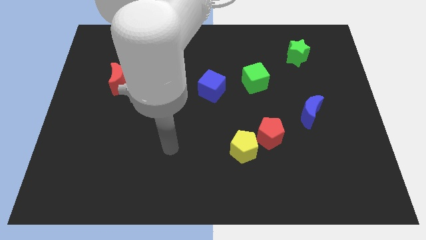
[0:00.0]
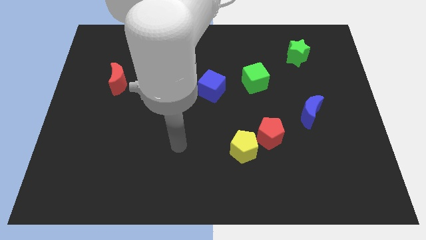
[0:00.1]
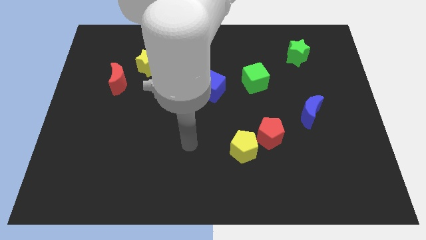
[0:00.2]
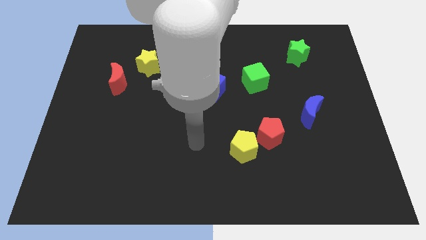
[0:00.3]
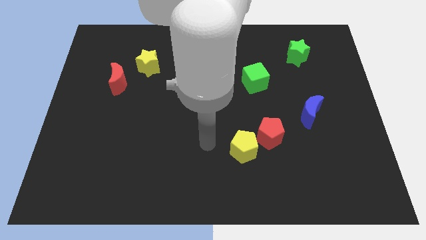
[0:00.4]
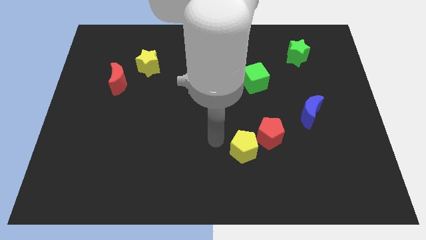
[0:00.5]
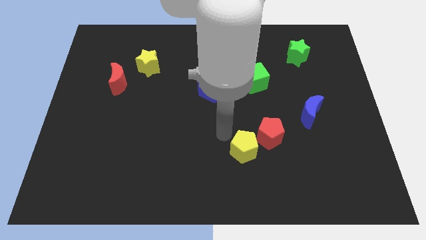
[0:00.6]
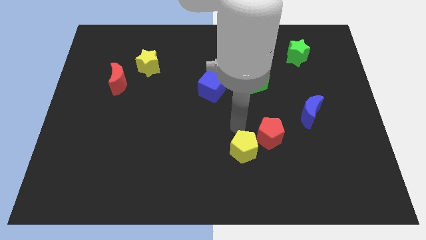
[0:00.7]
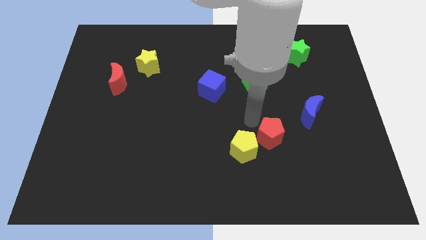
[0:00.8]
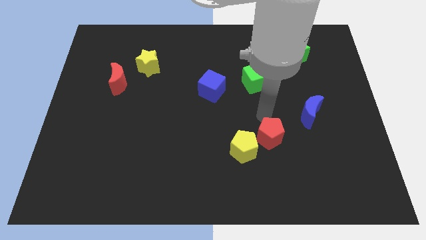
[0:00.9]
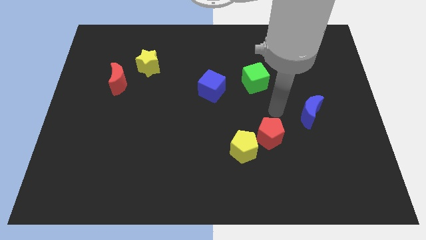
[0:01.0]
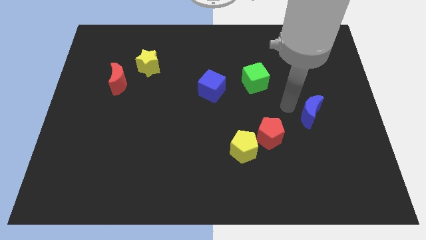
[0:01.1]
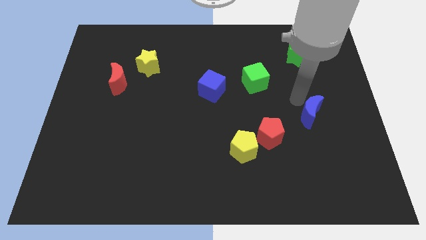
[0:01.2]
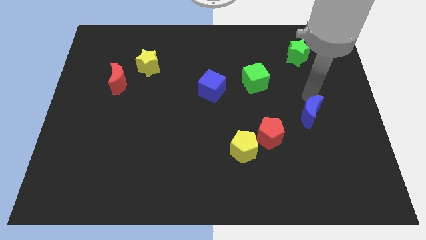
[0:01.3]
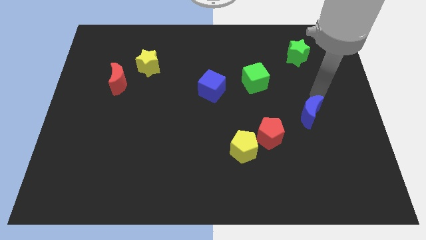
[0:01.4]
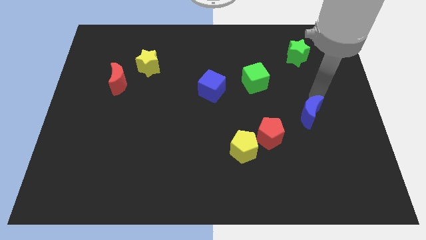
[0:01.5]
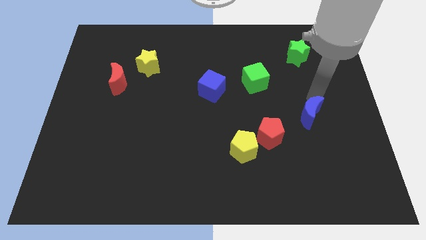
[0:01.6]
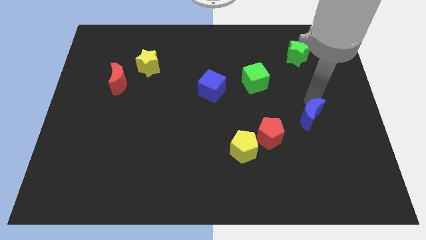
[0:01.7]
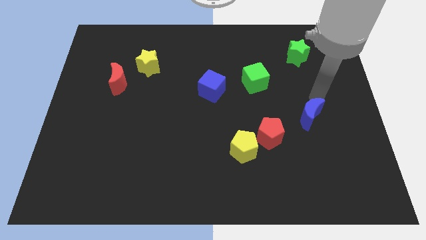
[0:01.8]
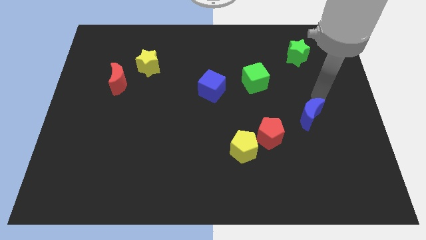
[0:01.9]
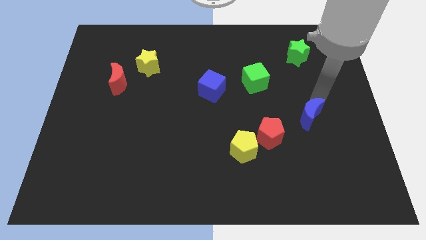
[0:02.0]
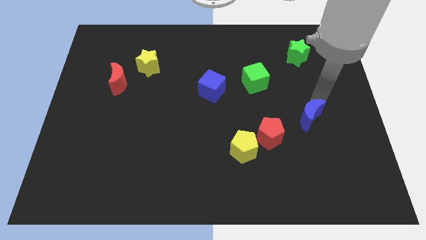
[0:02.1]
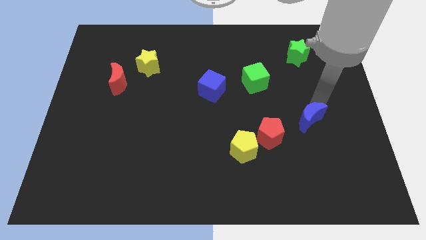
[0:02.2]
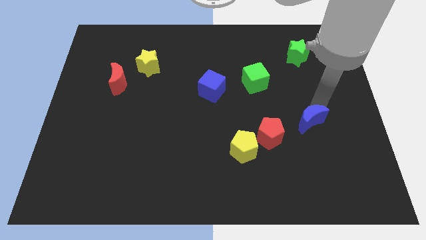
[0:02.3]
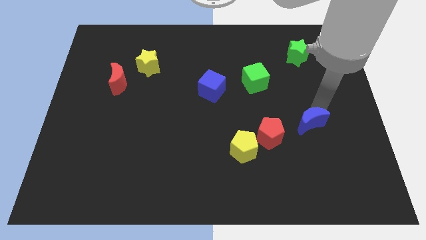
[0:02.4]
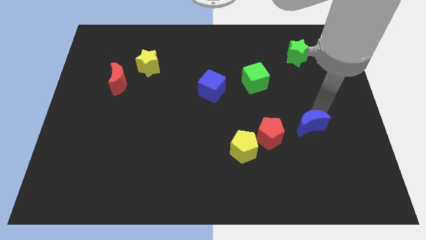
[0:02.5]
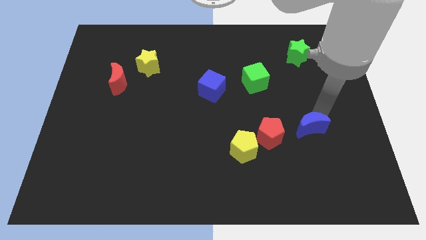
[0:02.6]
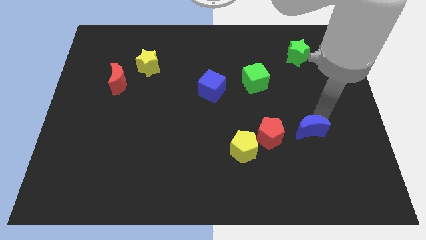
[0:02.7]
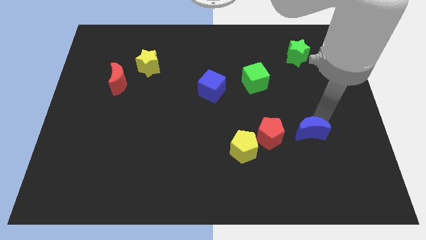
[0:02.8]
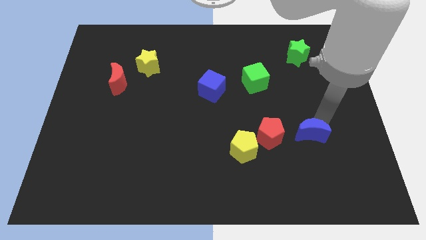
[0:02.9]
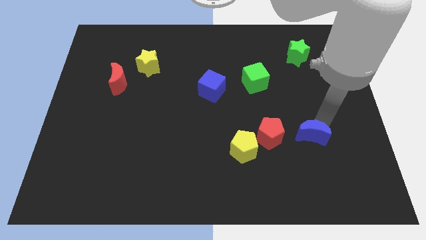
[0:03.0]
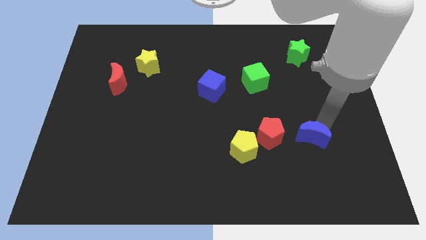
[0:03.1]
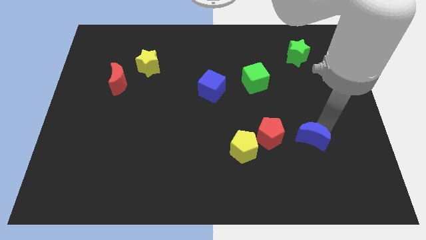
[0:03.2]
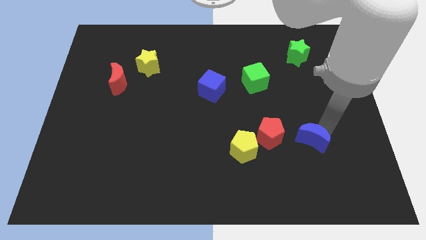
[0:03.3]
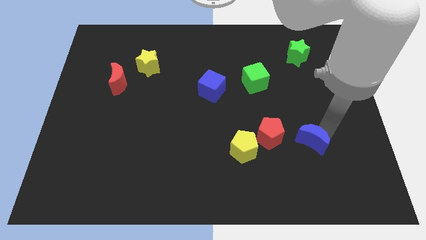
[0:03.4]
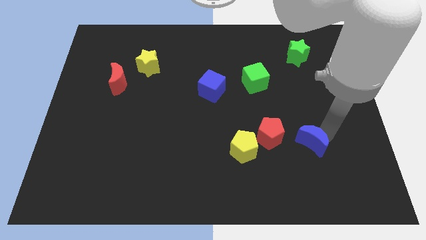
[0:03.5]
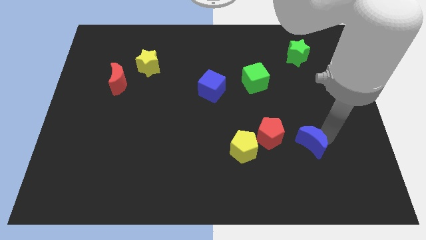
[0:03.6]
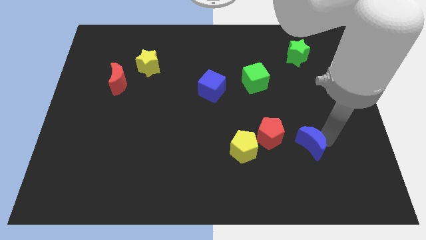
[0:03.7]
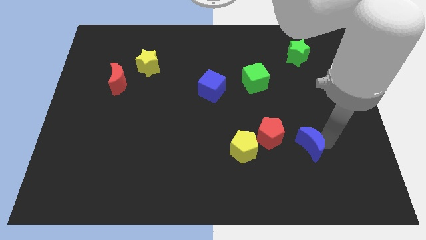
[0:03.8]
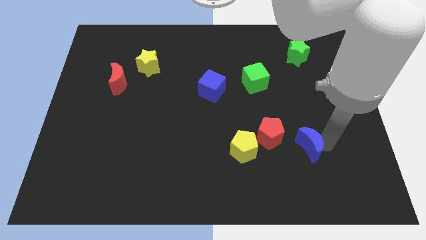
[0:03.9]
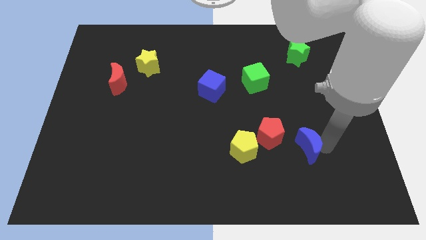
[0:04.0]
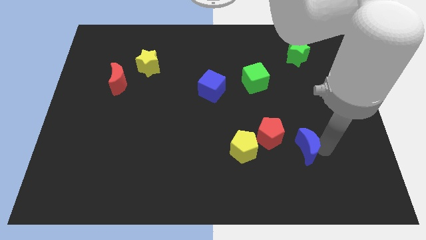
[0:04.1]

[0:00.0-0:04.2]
move the blue moon downwards and left diagonally a little bit

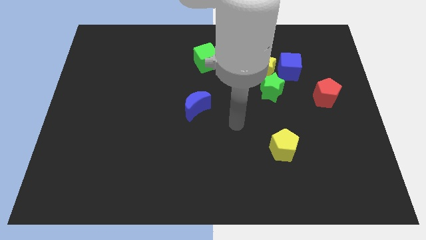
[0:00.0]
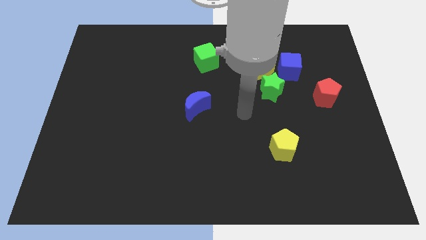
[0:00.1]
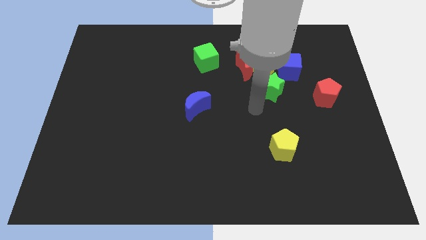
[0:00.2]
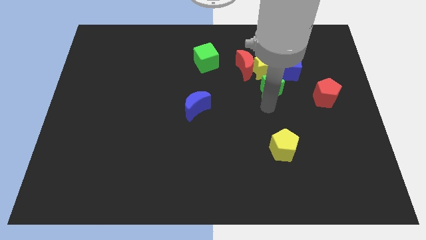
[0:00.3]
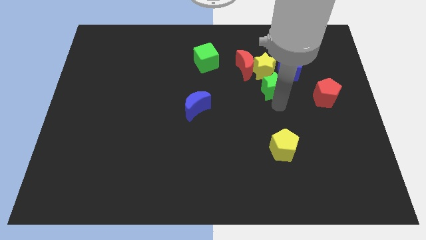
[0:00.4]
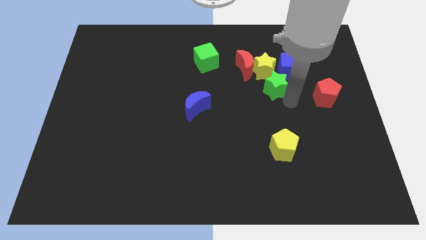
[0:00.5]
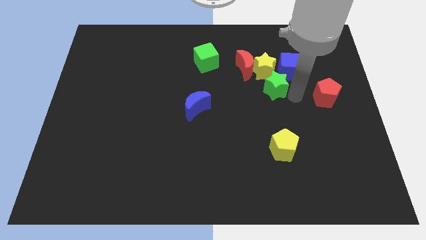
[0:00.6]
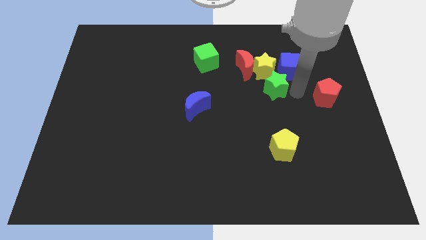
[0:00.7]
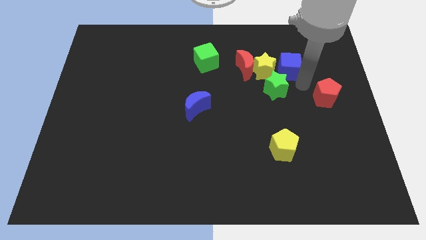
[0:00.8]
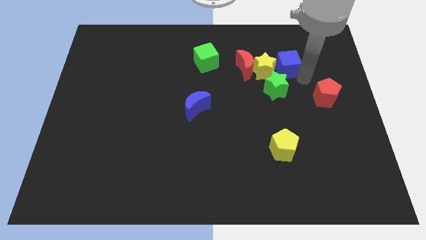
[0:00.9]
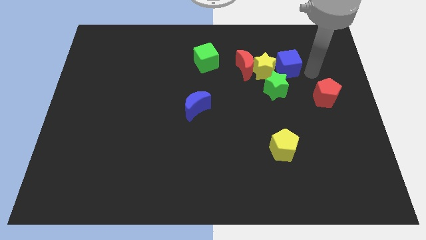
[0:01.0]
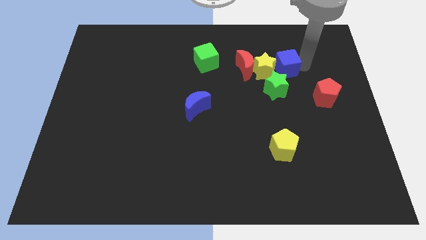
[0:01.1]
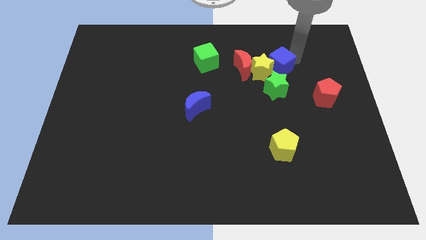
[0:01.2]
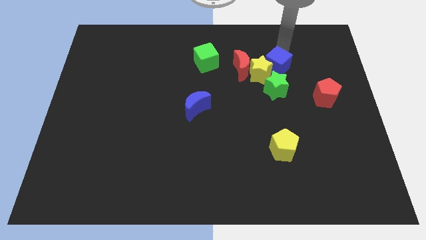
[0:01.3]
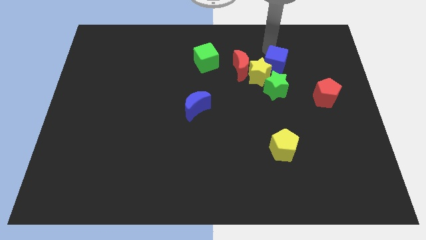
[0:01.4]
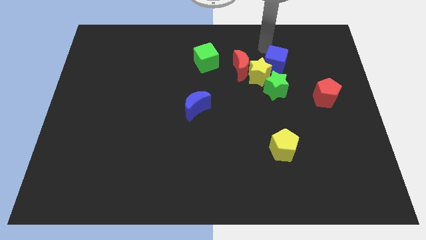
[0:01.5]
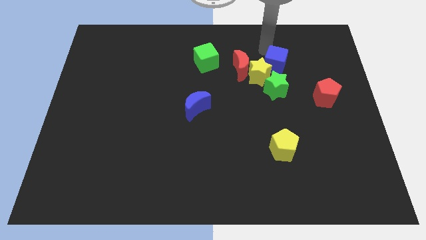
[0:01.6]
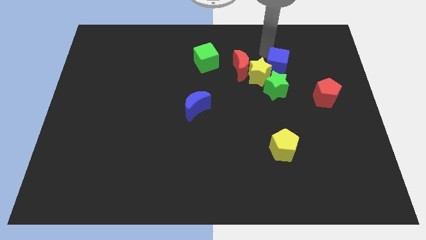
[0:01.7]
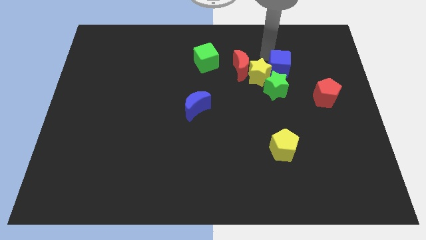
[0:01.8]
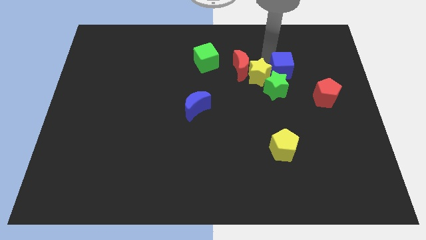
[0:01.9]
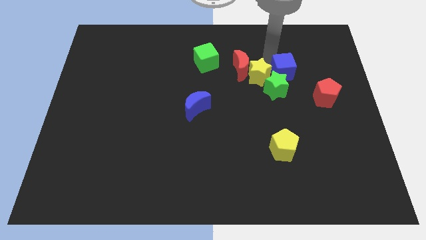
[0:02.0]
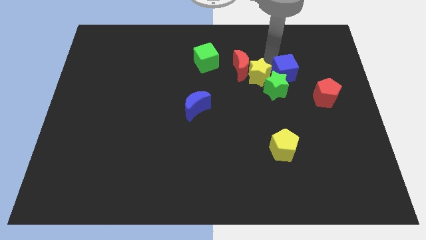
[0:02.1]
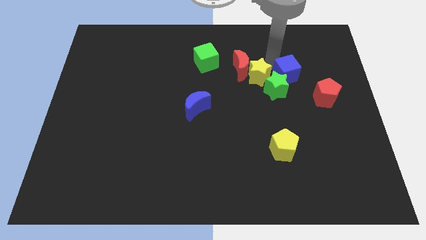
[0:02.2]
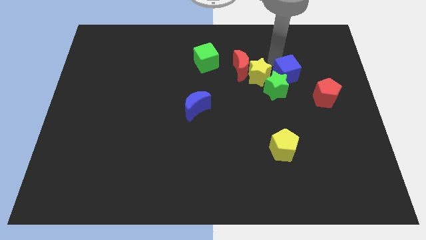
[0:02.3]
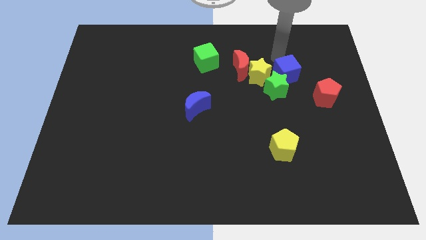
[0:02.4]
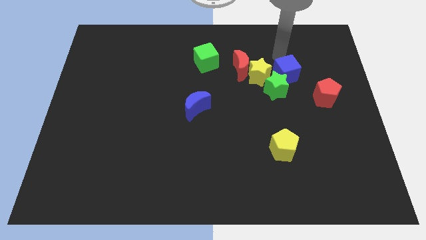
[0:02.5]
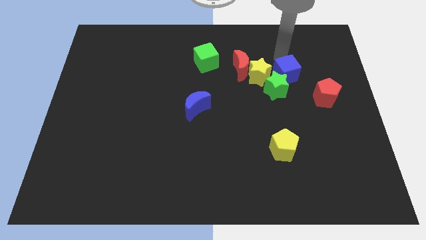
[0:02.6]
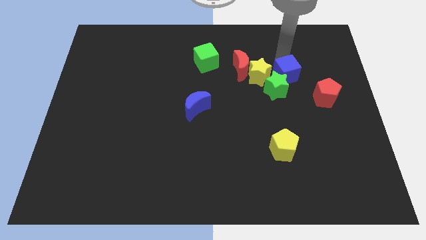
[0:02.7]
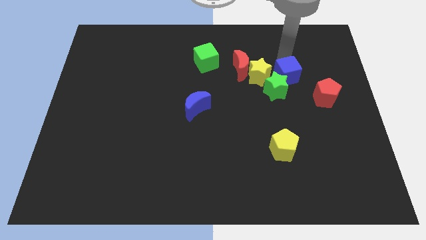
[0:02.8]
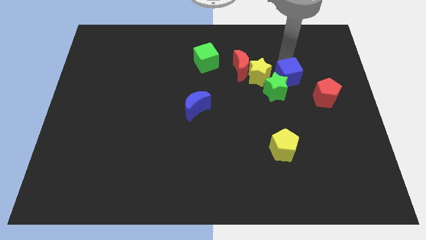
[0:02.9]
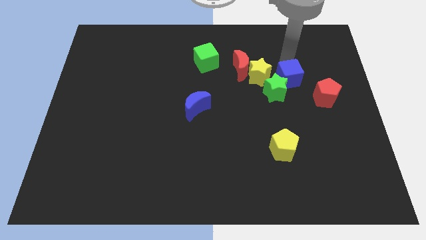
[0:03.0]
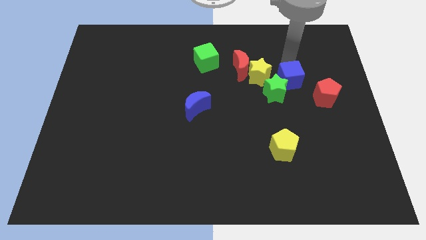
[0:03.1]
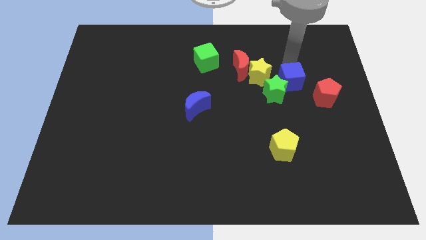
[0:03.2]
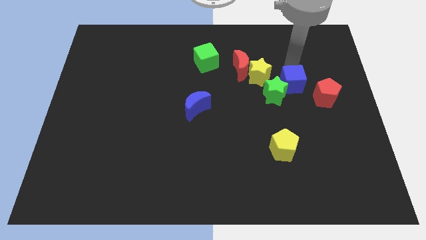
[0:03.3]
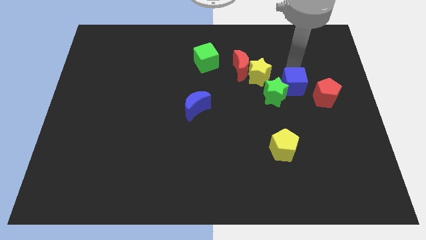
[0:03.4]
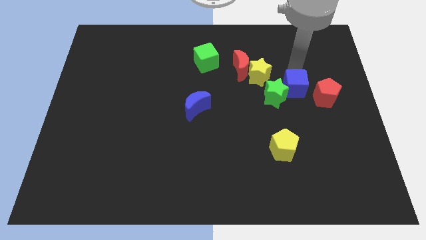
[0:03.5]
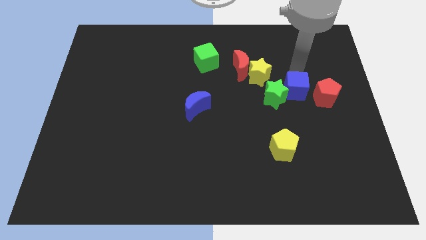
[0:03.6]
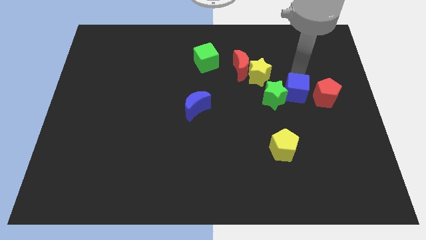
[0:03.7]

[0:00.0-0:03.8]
move the blue cube a little downwards
